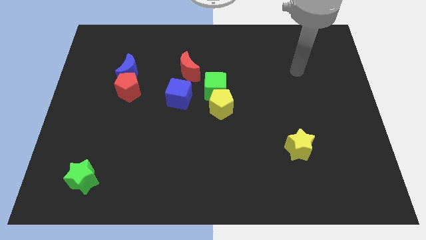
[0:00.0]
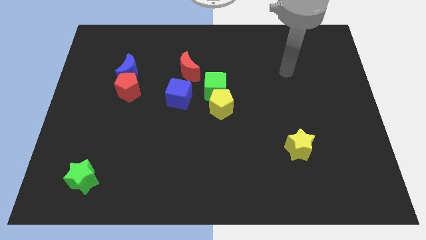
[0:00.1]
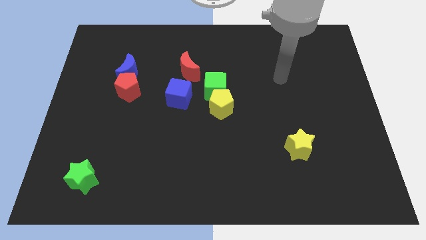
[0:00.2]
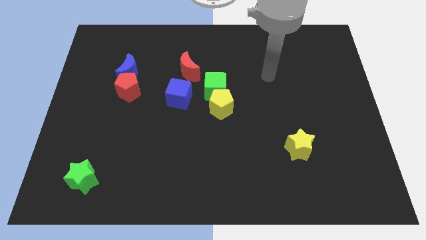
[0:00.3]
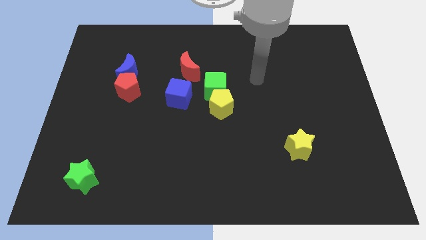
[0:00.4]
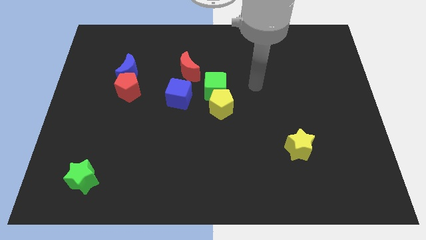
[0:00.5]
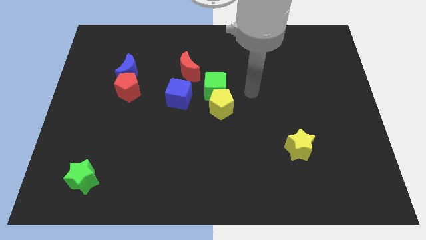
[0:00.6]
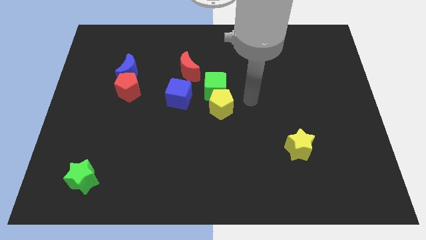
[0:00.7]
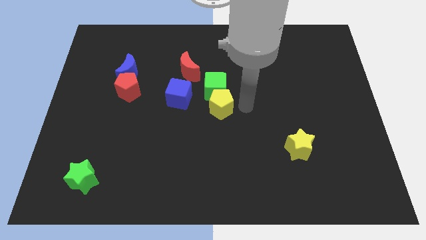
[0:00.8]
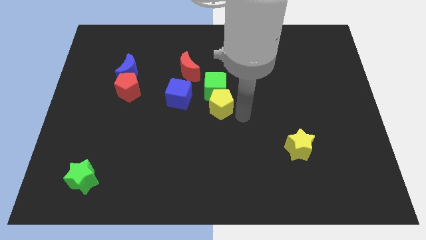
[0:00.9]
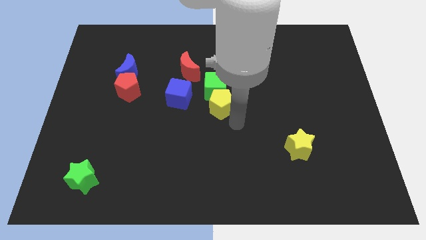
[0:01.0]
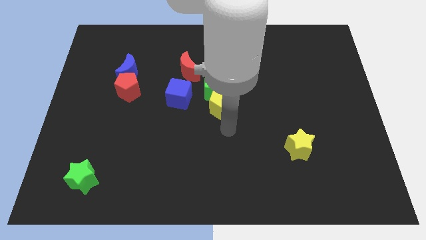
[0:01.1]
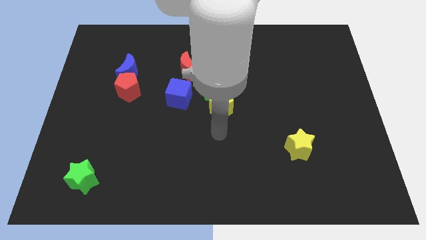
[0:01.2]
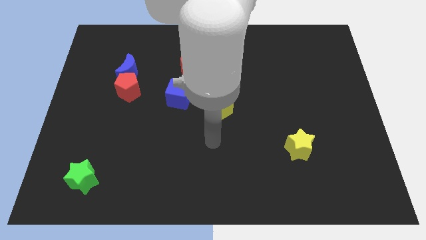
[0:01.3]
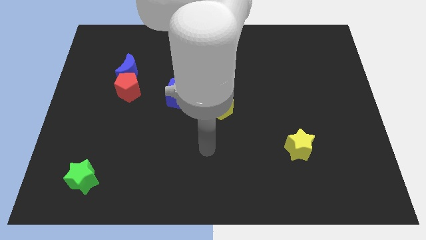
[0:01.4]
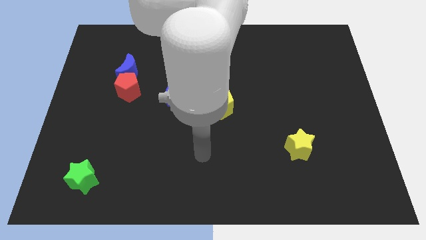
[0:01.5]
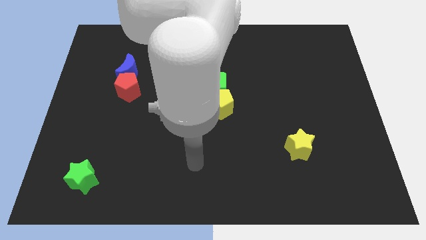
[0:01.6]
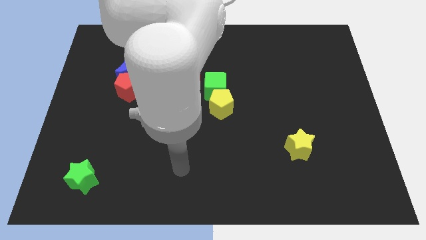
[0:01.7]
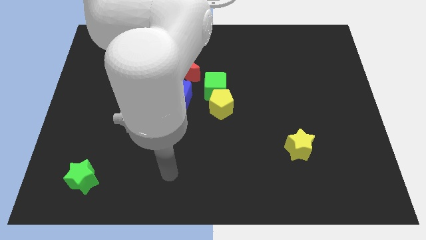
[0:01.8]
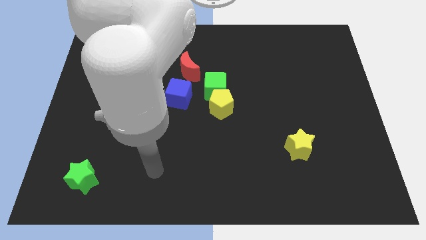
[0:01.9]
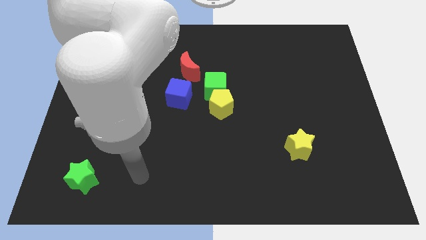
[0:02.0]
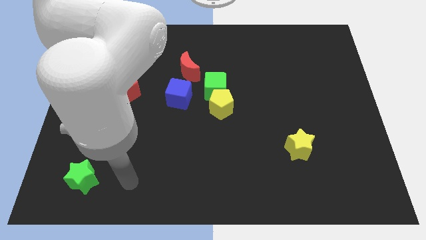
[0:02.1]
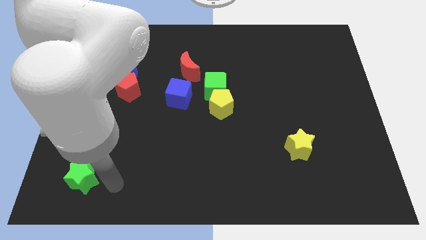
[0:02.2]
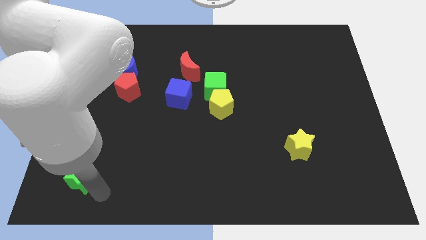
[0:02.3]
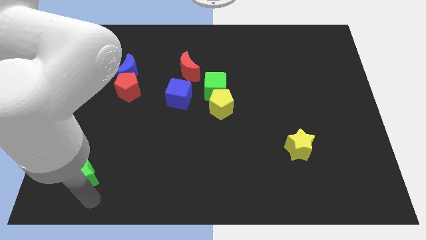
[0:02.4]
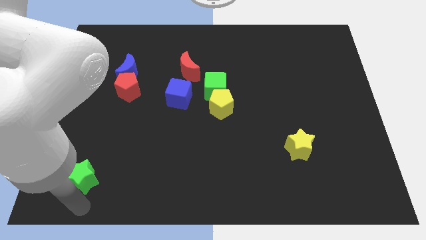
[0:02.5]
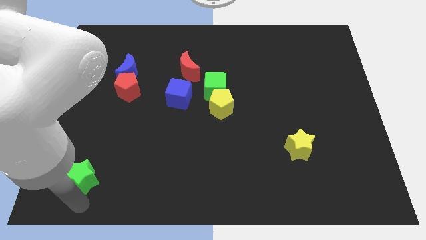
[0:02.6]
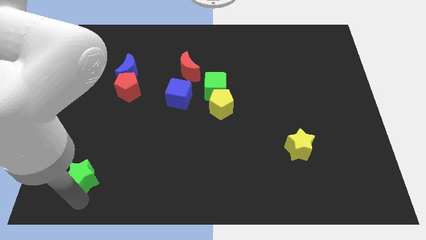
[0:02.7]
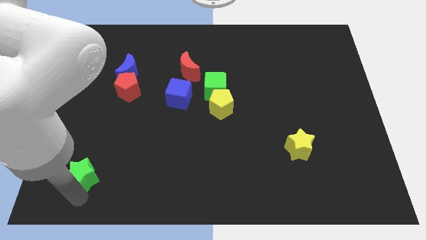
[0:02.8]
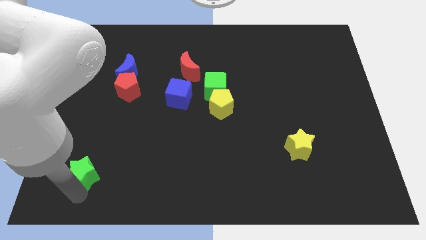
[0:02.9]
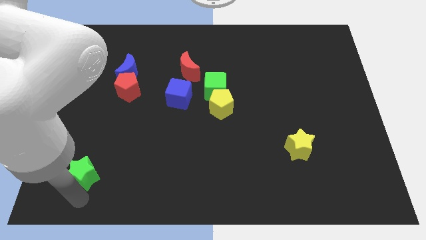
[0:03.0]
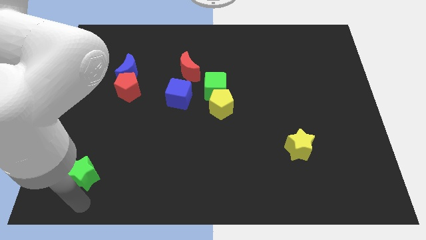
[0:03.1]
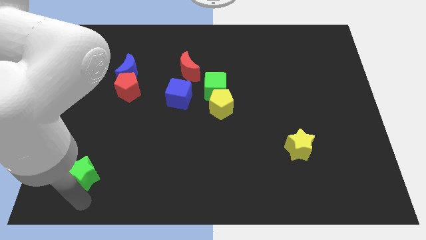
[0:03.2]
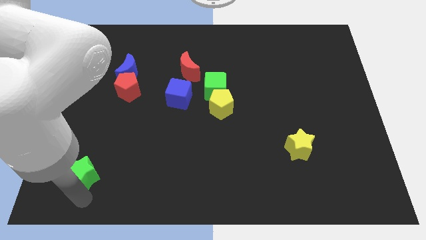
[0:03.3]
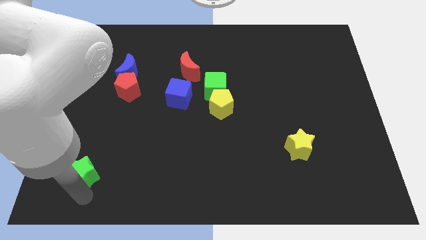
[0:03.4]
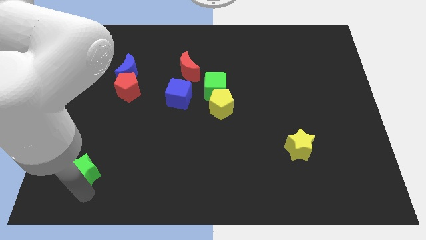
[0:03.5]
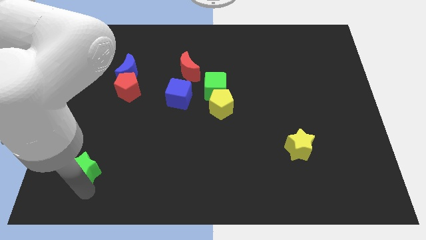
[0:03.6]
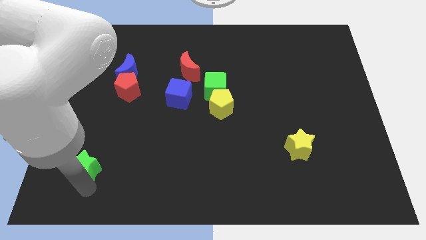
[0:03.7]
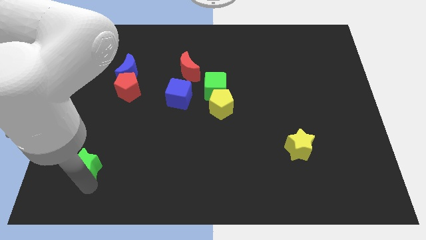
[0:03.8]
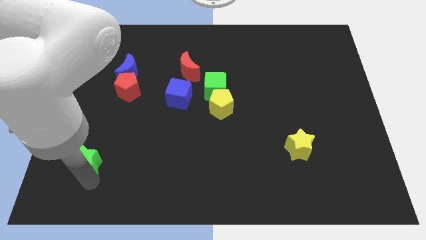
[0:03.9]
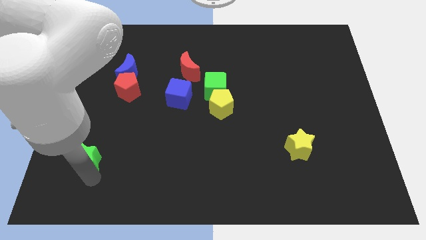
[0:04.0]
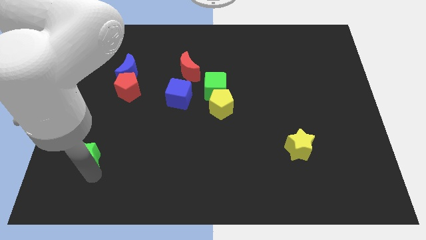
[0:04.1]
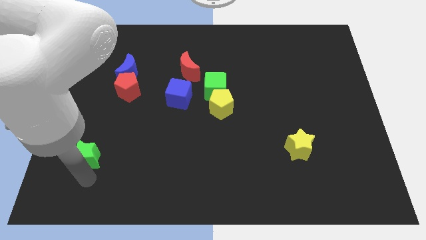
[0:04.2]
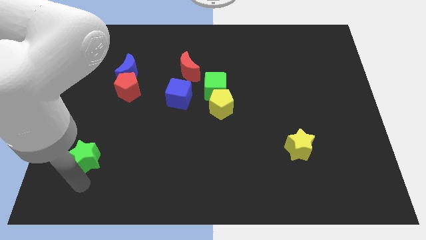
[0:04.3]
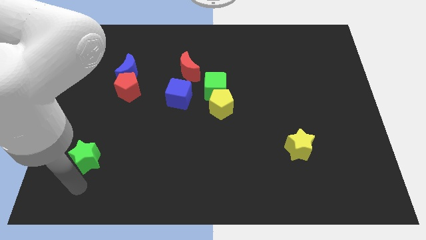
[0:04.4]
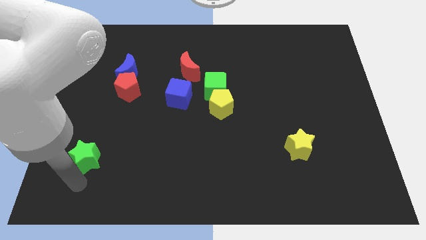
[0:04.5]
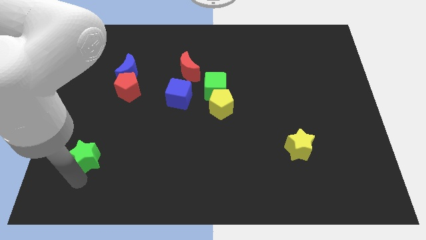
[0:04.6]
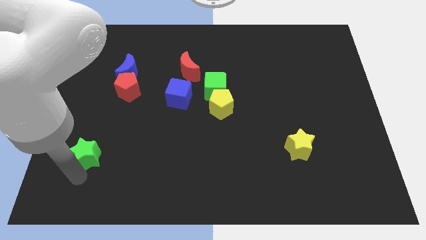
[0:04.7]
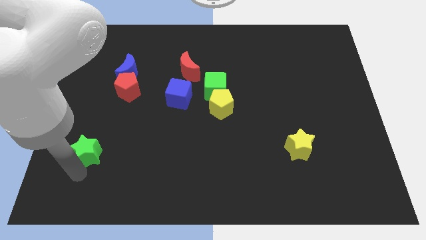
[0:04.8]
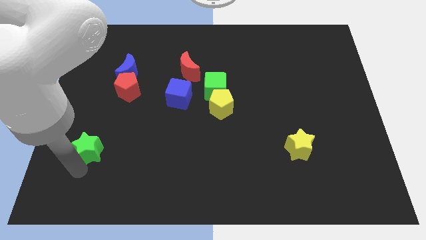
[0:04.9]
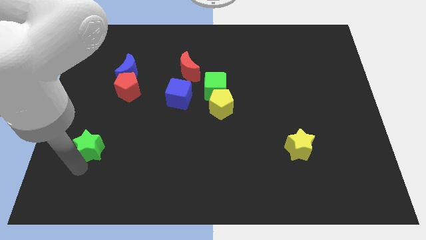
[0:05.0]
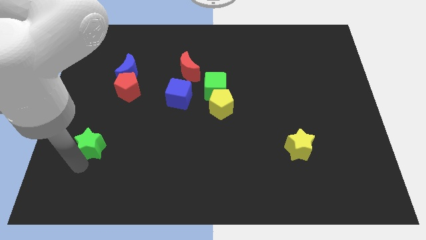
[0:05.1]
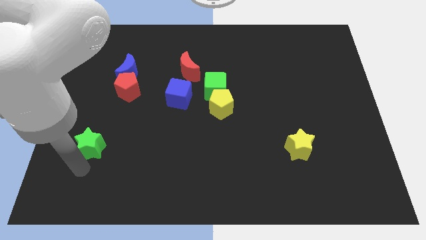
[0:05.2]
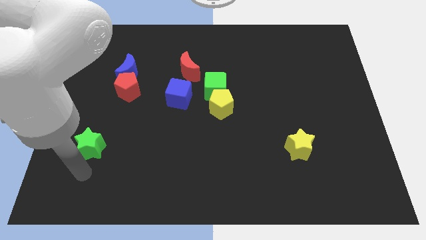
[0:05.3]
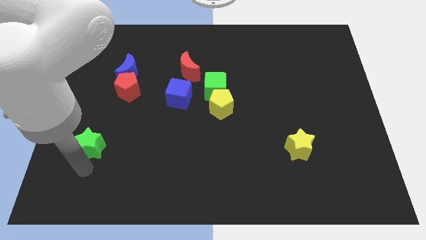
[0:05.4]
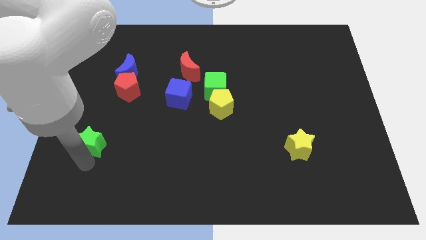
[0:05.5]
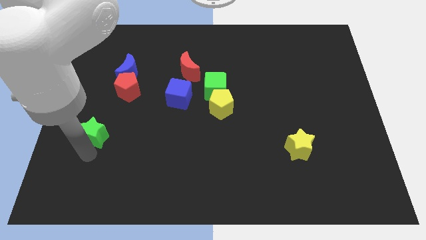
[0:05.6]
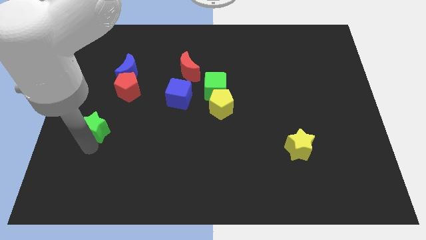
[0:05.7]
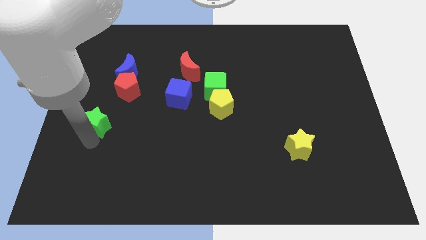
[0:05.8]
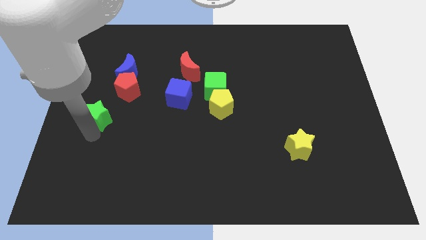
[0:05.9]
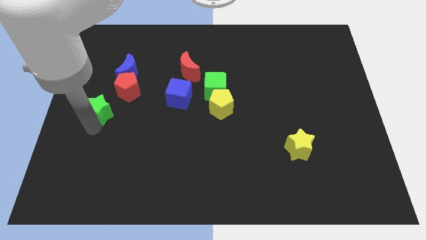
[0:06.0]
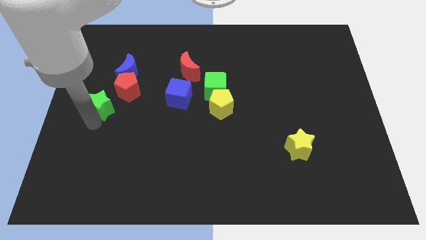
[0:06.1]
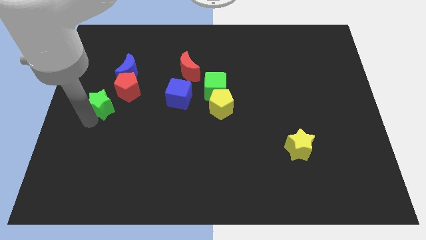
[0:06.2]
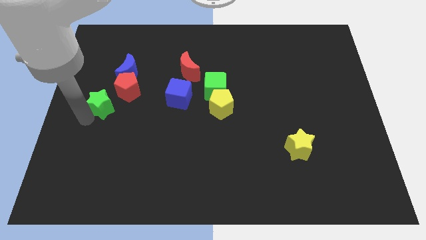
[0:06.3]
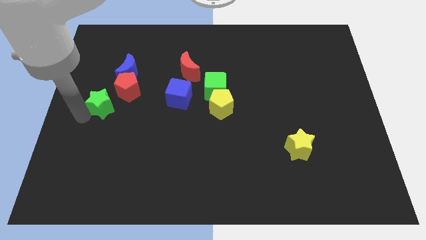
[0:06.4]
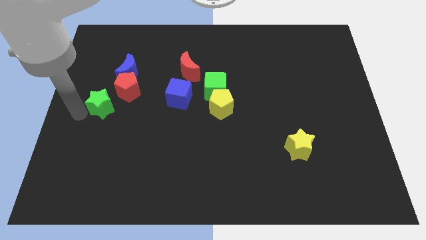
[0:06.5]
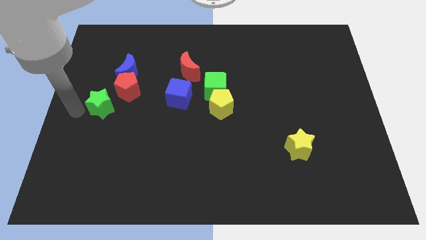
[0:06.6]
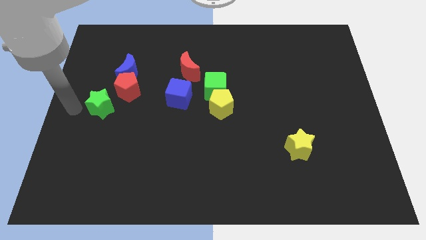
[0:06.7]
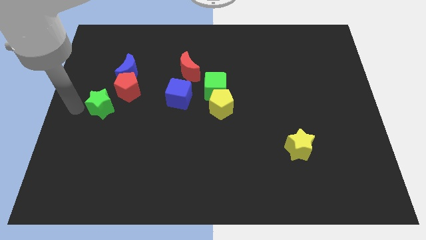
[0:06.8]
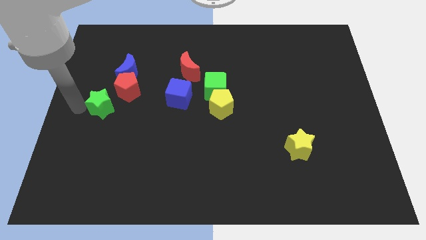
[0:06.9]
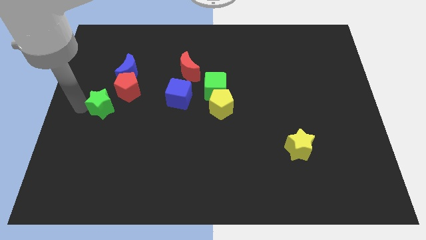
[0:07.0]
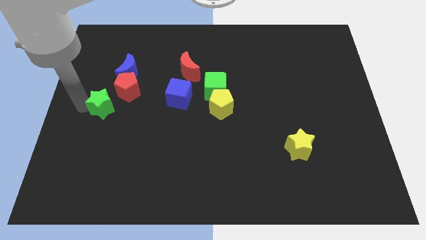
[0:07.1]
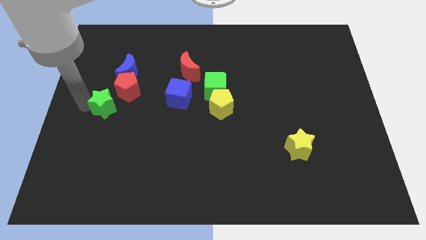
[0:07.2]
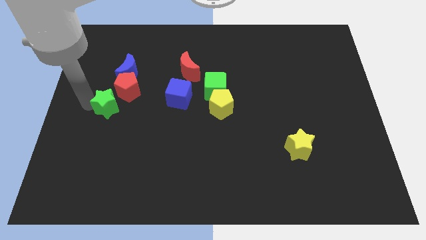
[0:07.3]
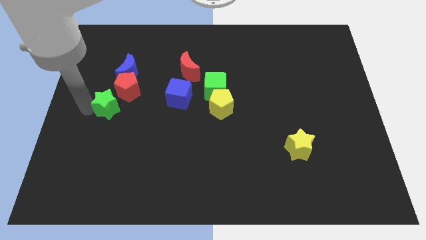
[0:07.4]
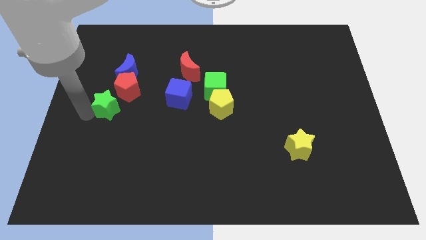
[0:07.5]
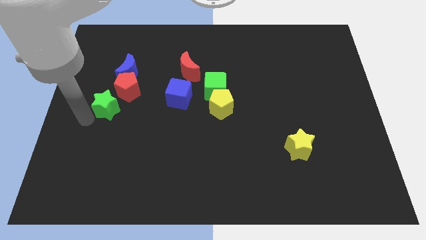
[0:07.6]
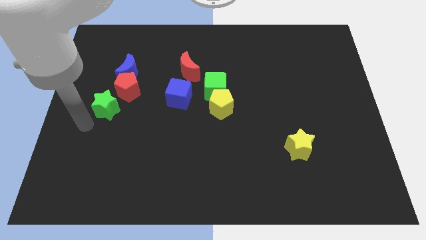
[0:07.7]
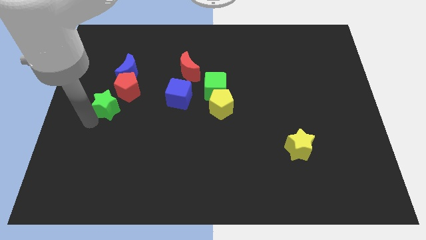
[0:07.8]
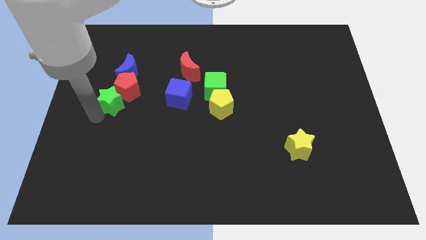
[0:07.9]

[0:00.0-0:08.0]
push the green star next to the red pentagon
